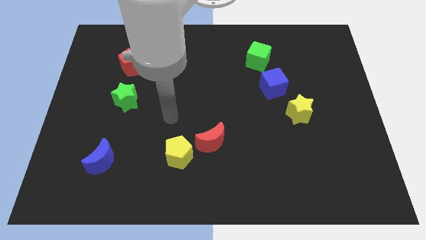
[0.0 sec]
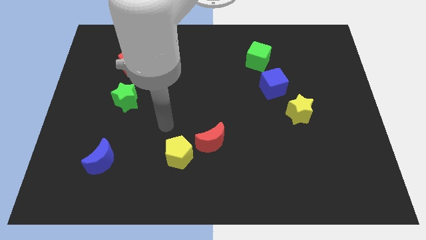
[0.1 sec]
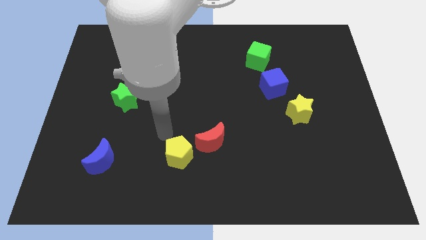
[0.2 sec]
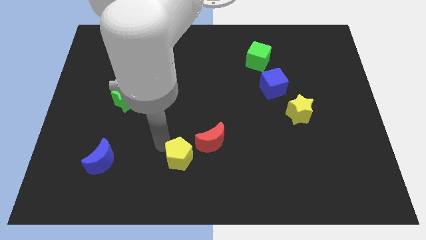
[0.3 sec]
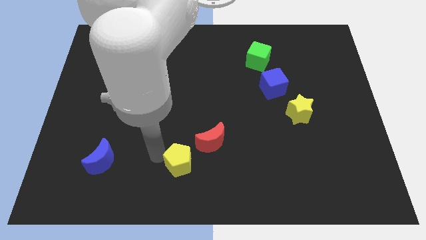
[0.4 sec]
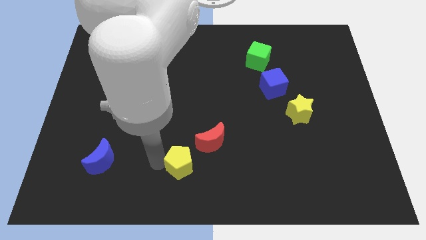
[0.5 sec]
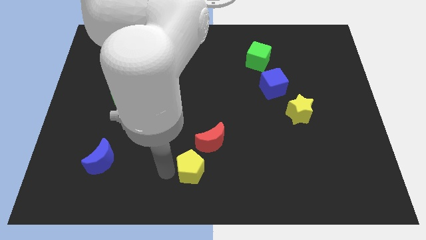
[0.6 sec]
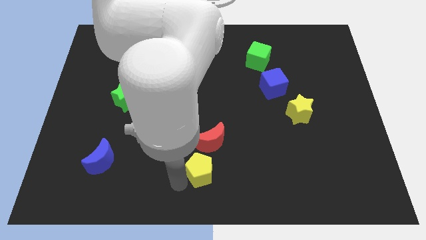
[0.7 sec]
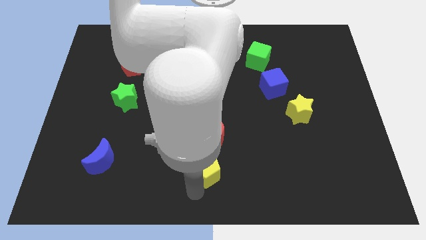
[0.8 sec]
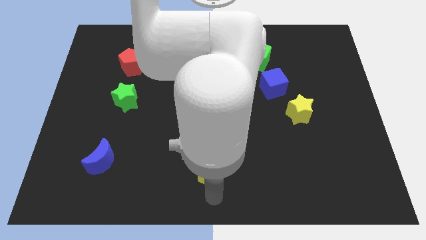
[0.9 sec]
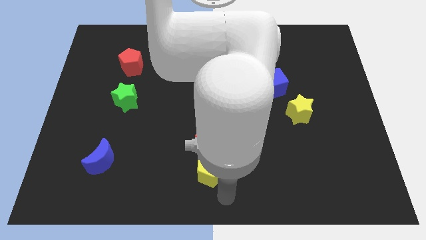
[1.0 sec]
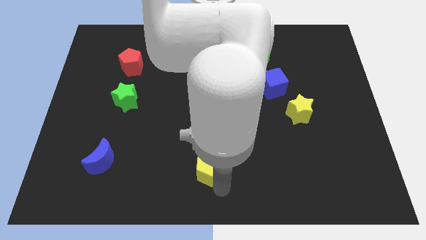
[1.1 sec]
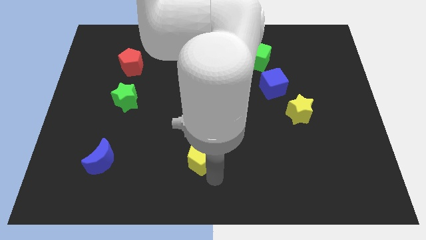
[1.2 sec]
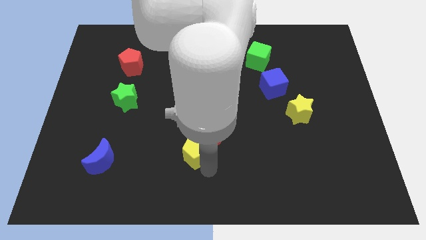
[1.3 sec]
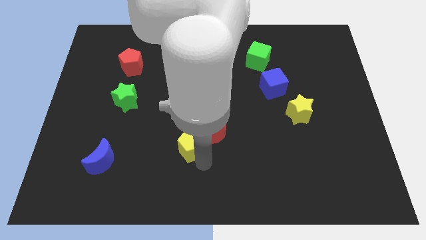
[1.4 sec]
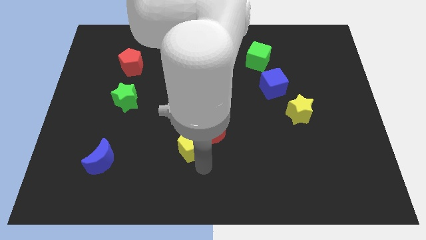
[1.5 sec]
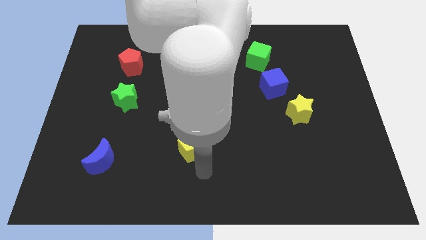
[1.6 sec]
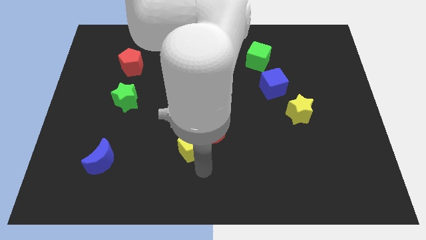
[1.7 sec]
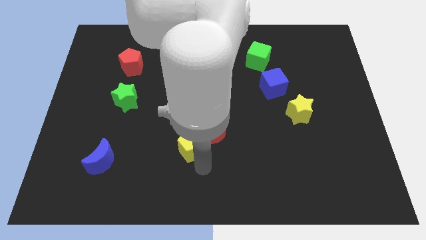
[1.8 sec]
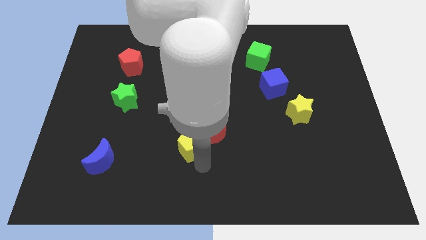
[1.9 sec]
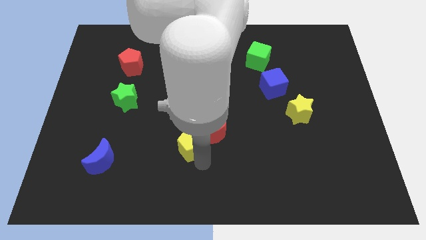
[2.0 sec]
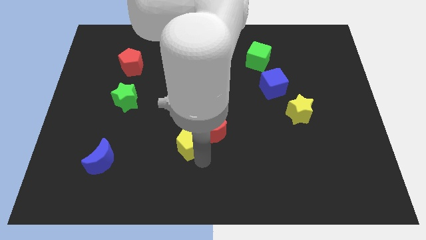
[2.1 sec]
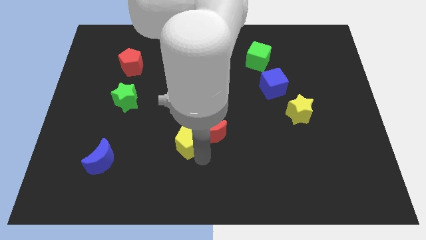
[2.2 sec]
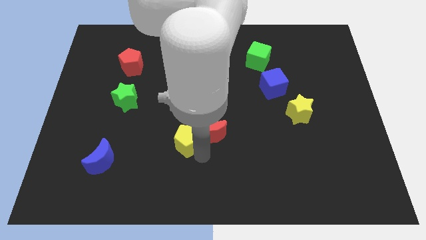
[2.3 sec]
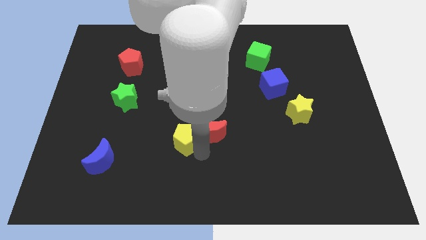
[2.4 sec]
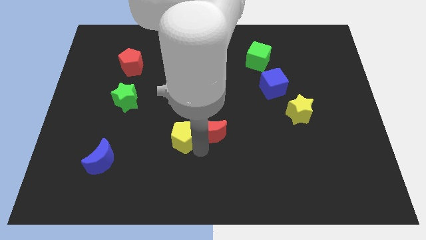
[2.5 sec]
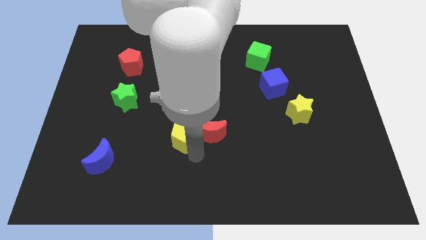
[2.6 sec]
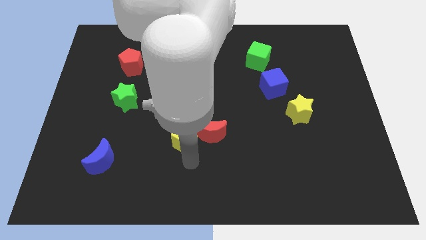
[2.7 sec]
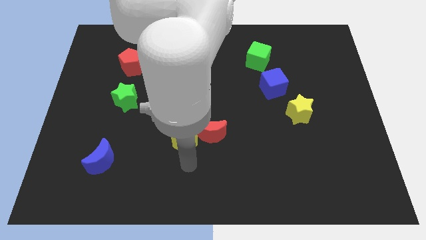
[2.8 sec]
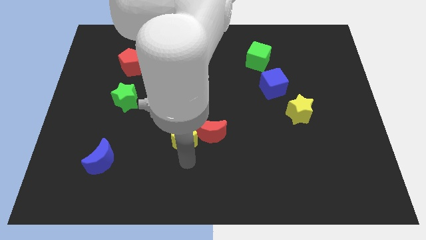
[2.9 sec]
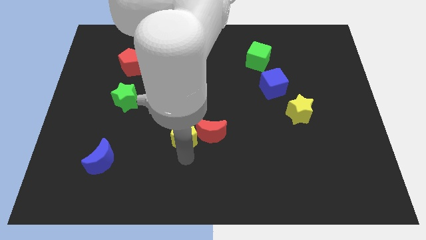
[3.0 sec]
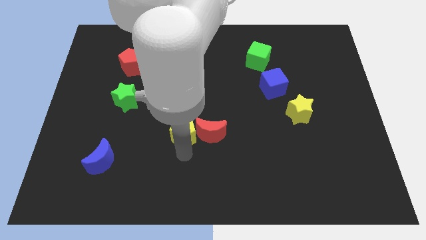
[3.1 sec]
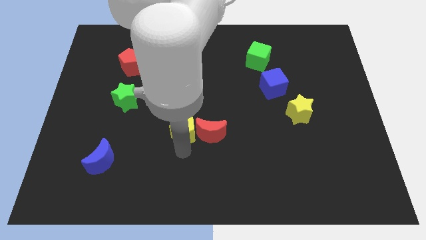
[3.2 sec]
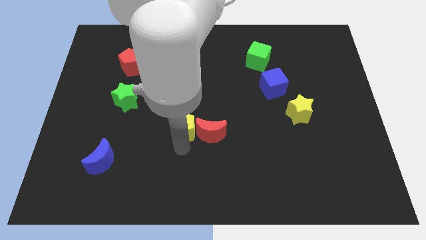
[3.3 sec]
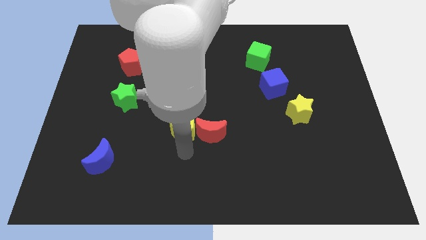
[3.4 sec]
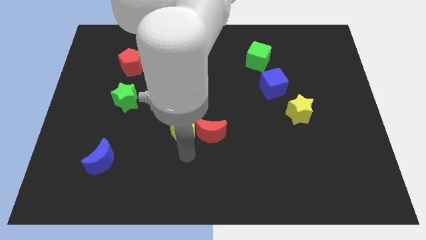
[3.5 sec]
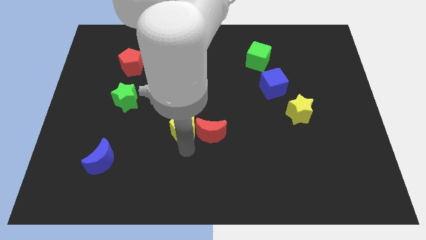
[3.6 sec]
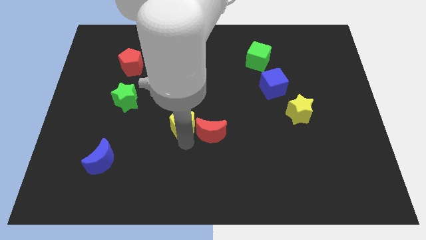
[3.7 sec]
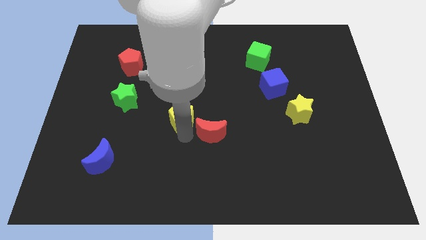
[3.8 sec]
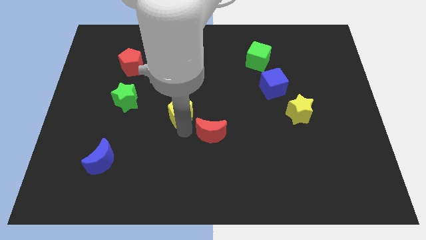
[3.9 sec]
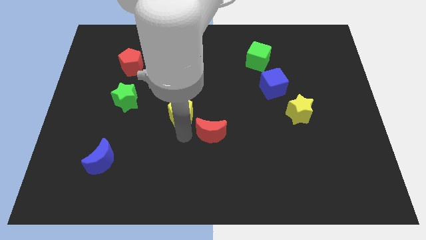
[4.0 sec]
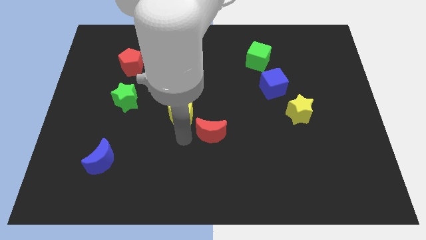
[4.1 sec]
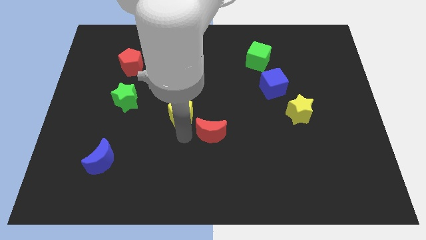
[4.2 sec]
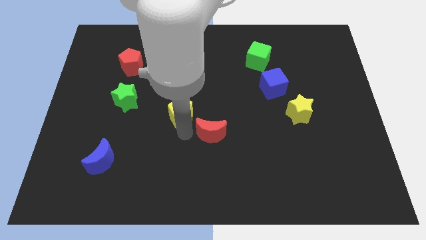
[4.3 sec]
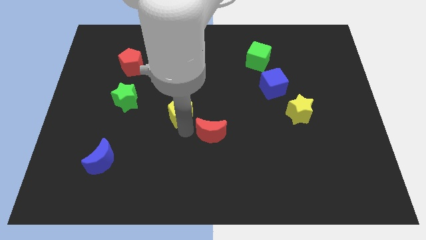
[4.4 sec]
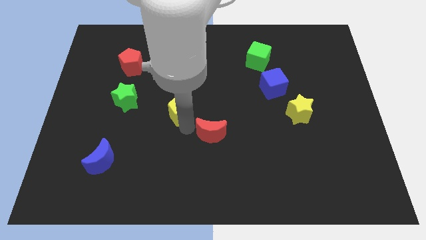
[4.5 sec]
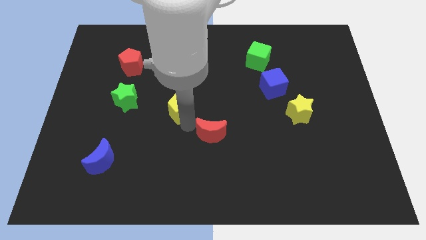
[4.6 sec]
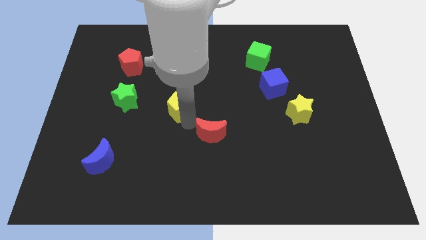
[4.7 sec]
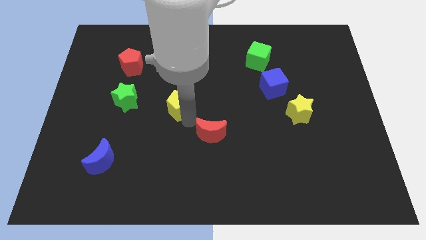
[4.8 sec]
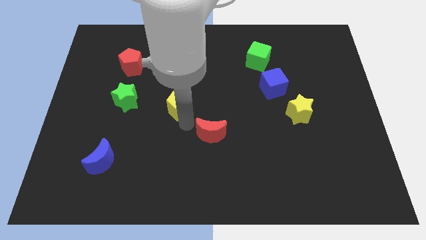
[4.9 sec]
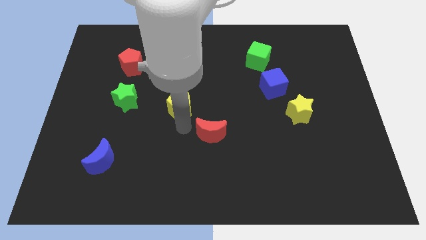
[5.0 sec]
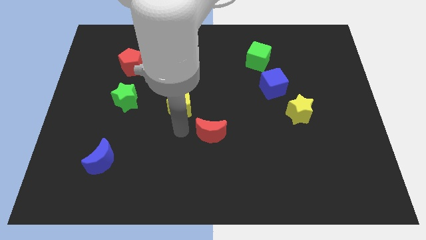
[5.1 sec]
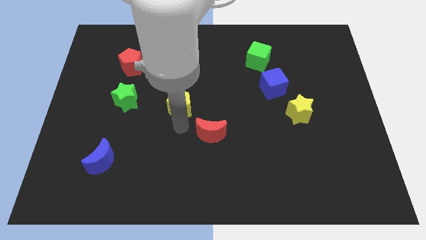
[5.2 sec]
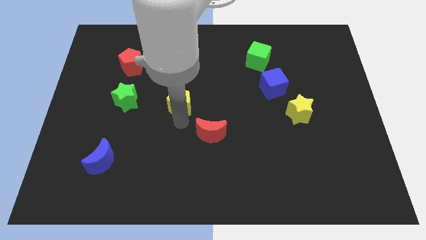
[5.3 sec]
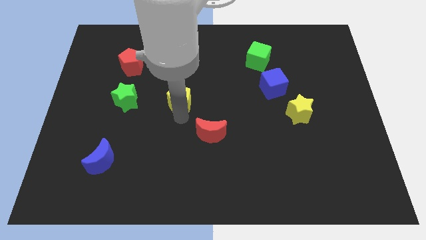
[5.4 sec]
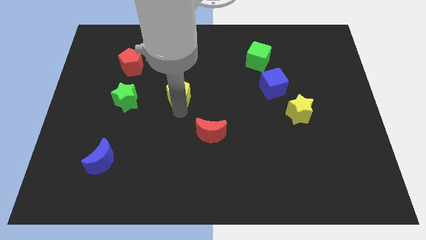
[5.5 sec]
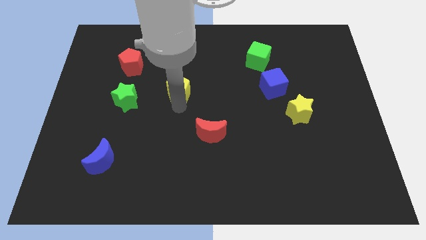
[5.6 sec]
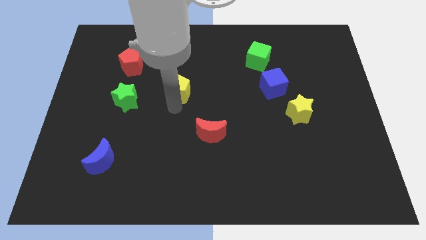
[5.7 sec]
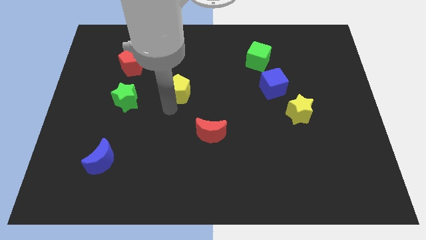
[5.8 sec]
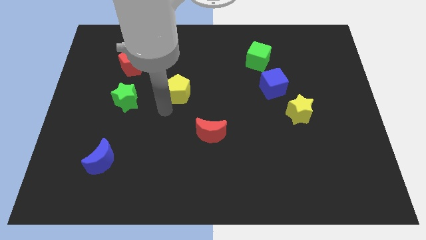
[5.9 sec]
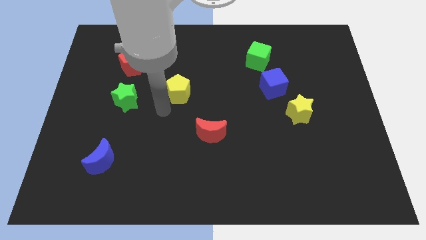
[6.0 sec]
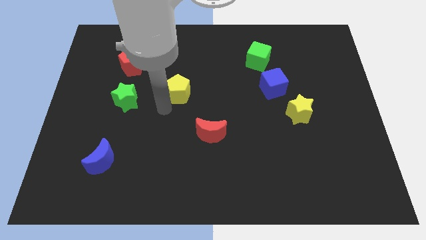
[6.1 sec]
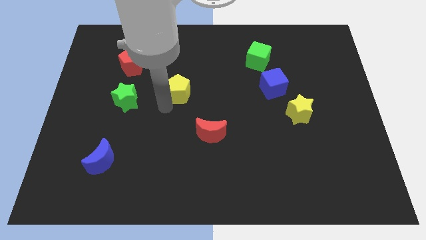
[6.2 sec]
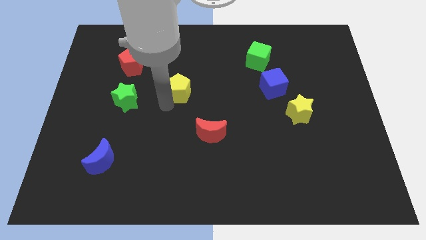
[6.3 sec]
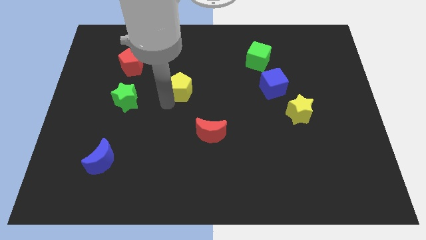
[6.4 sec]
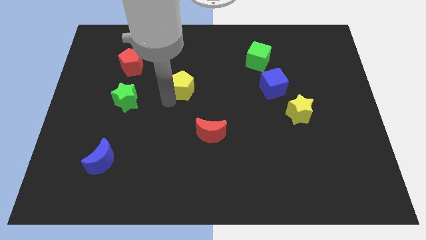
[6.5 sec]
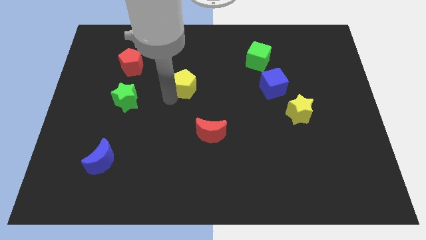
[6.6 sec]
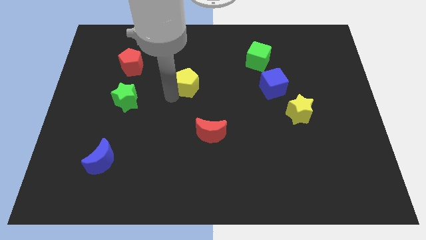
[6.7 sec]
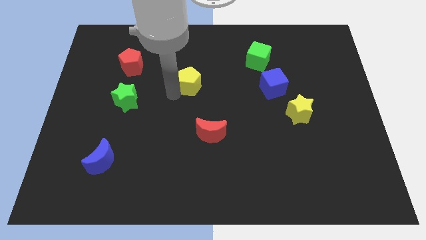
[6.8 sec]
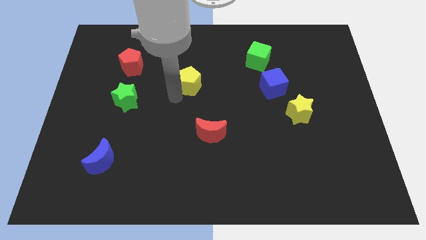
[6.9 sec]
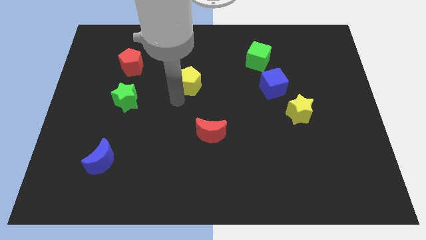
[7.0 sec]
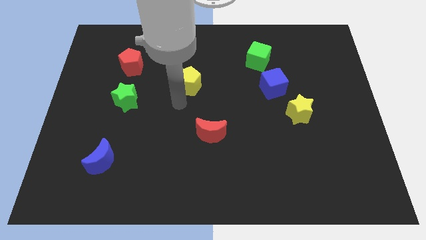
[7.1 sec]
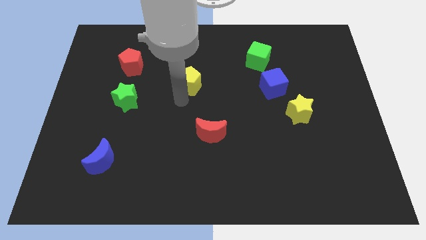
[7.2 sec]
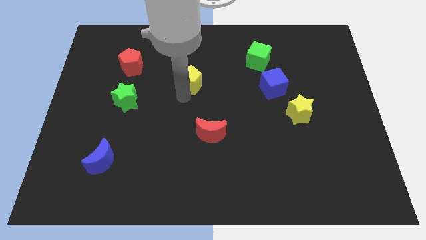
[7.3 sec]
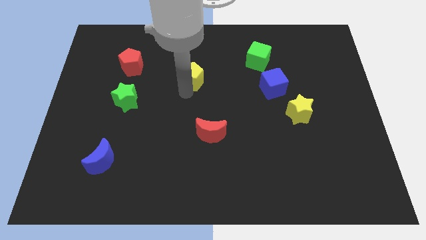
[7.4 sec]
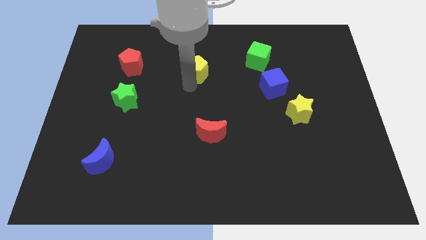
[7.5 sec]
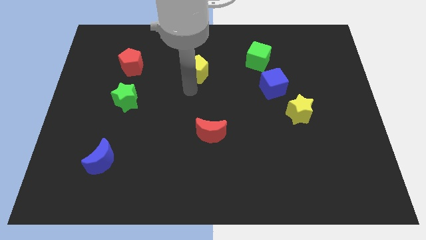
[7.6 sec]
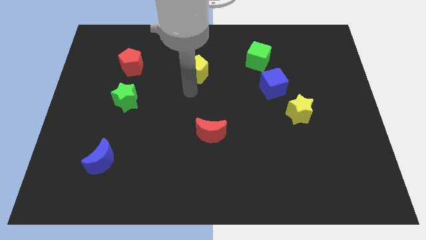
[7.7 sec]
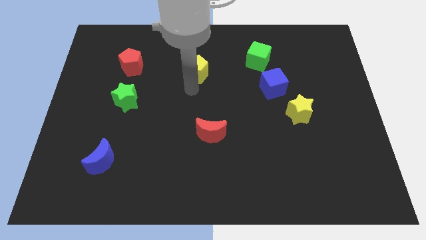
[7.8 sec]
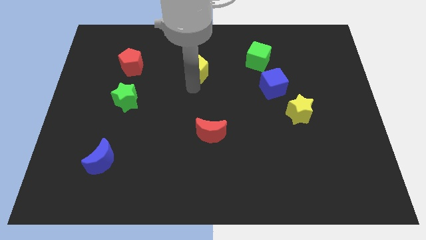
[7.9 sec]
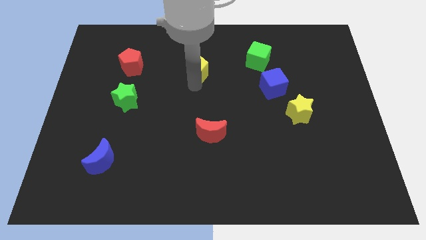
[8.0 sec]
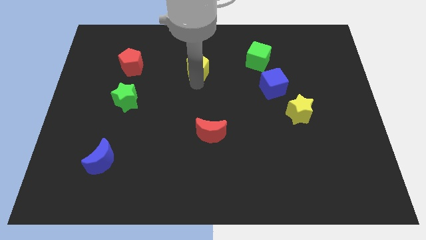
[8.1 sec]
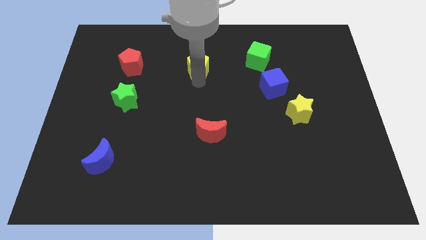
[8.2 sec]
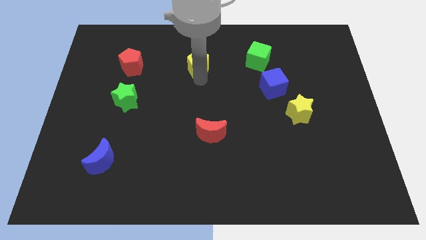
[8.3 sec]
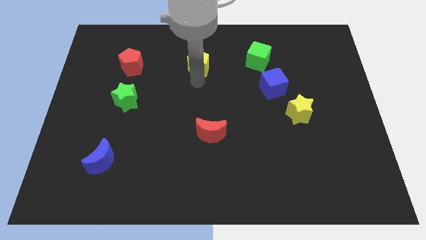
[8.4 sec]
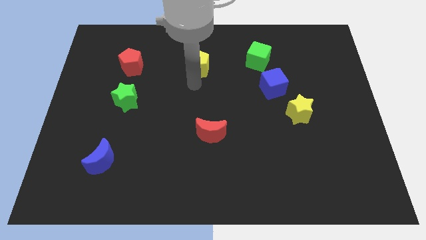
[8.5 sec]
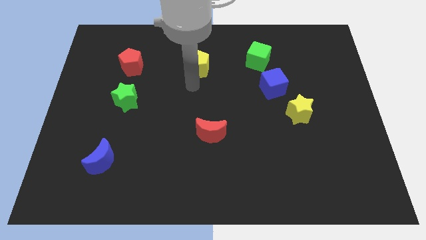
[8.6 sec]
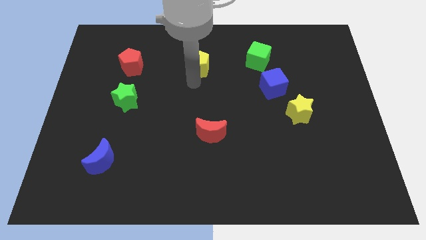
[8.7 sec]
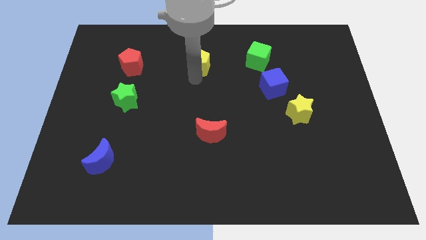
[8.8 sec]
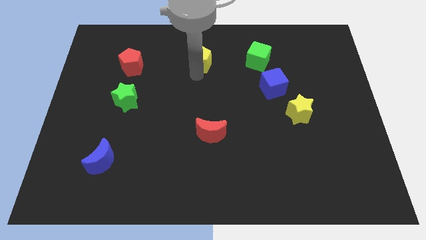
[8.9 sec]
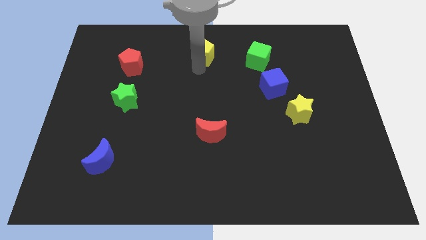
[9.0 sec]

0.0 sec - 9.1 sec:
slide the yellow pentagon to the top side
